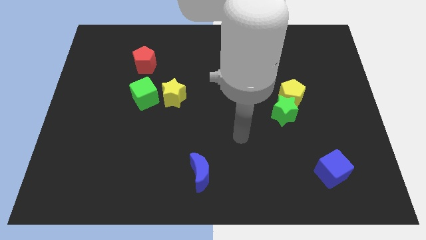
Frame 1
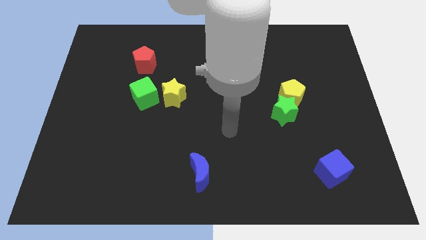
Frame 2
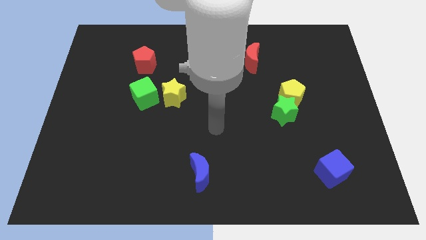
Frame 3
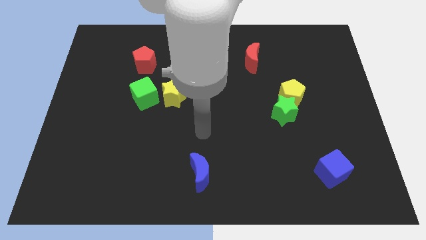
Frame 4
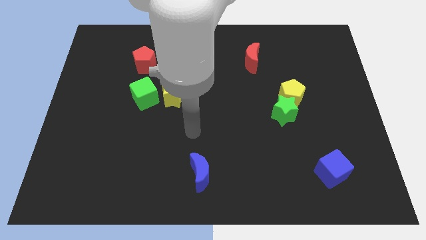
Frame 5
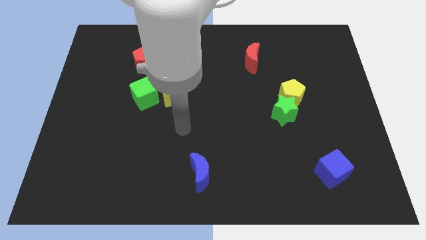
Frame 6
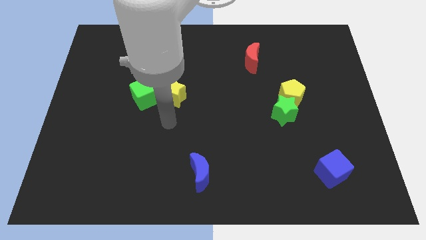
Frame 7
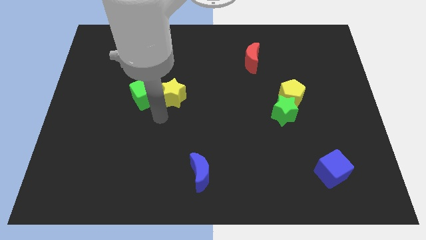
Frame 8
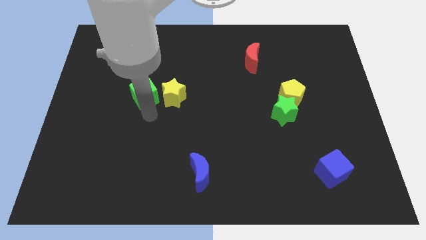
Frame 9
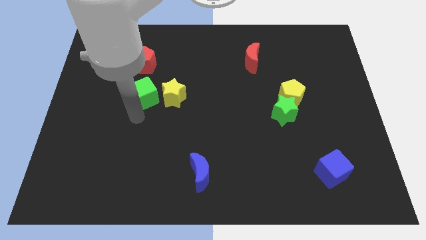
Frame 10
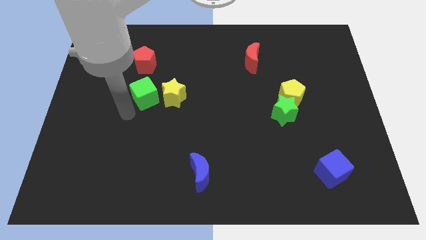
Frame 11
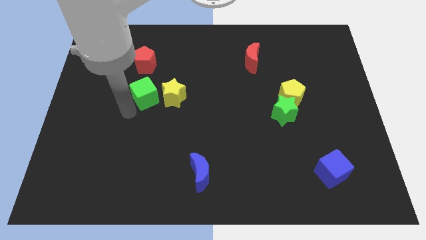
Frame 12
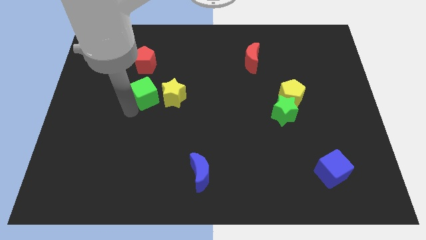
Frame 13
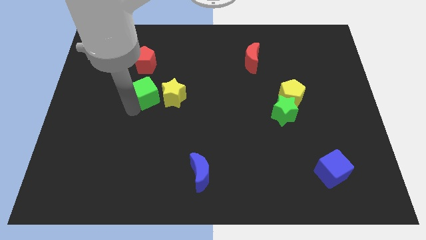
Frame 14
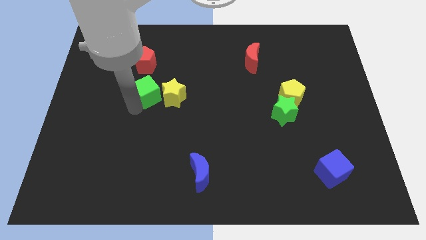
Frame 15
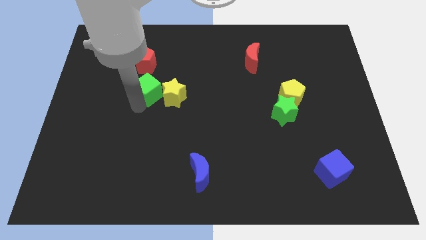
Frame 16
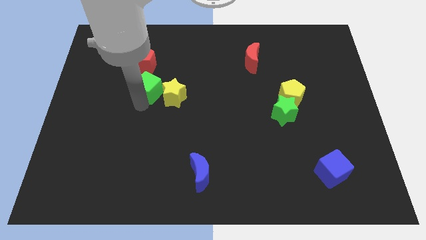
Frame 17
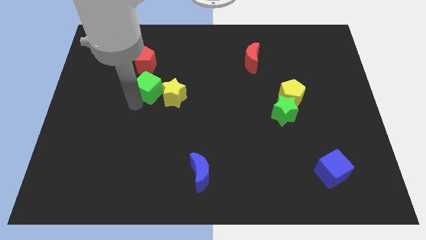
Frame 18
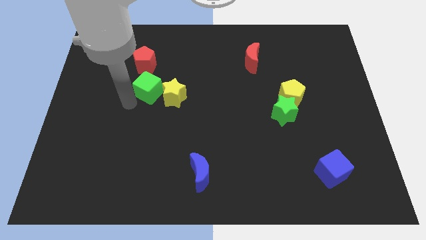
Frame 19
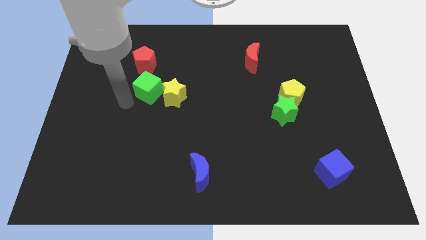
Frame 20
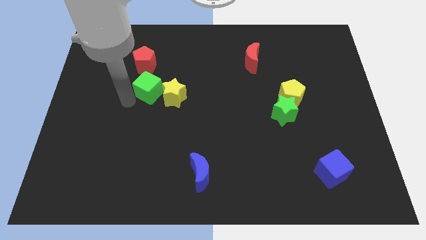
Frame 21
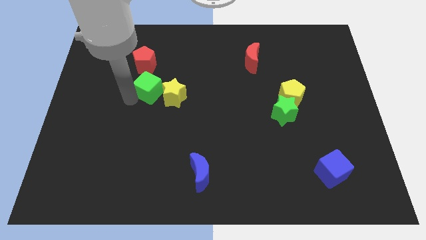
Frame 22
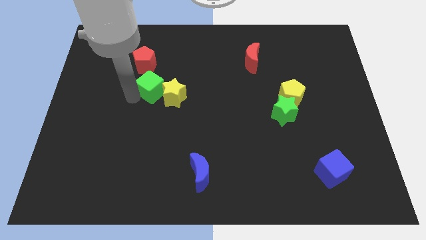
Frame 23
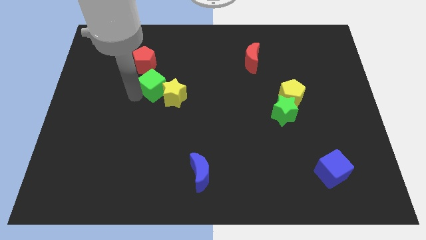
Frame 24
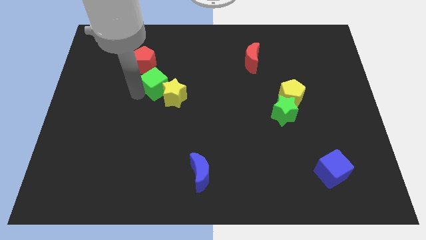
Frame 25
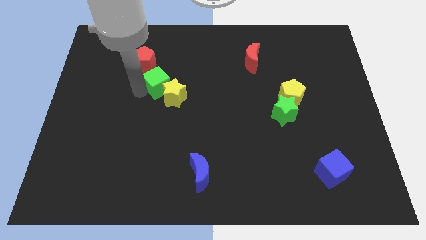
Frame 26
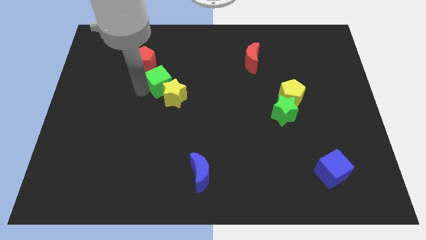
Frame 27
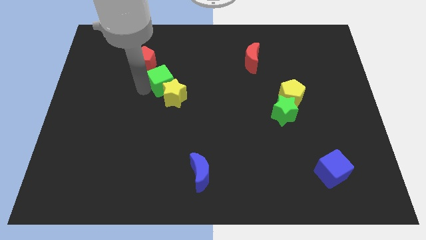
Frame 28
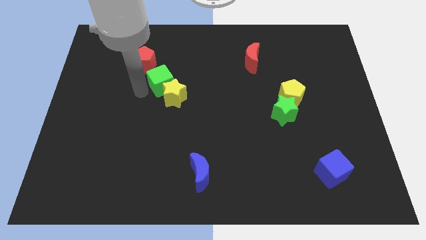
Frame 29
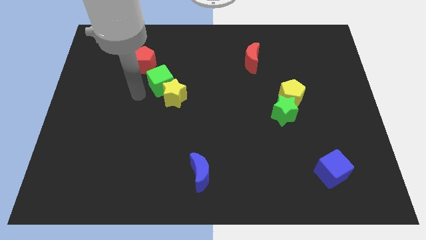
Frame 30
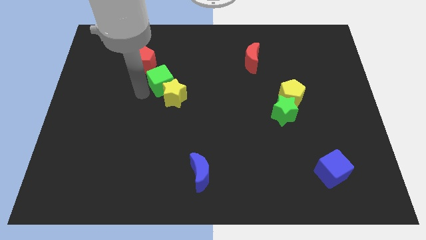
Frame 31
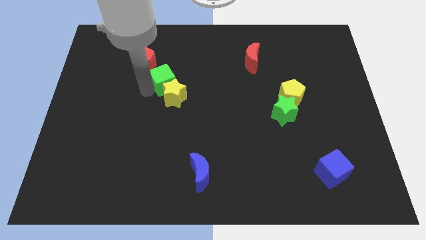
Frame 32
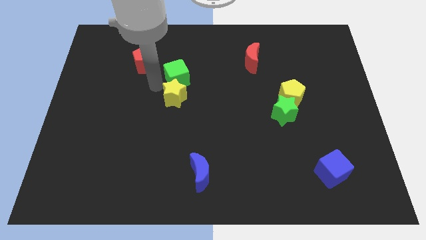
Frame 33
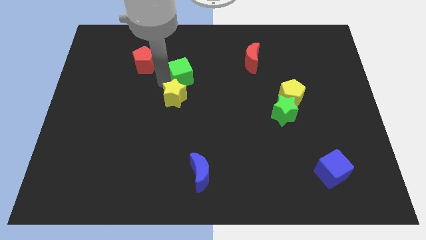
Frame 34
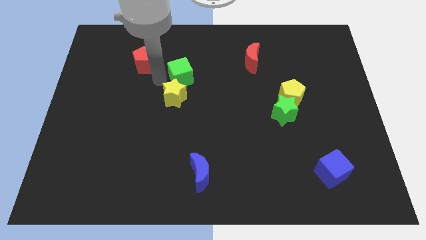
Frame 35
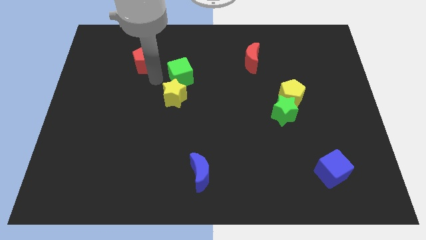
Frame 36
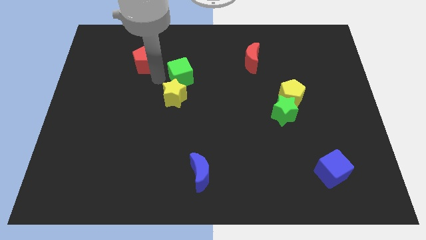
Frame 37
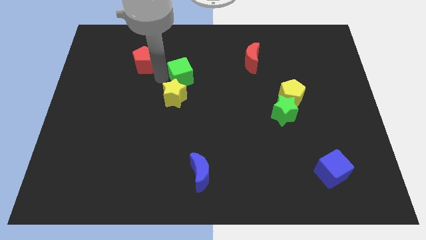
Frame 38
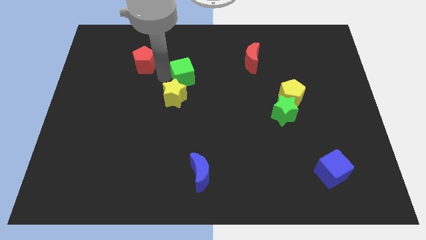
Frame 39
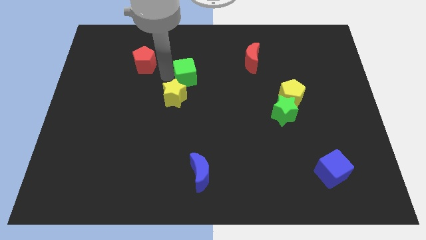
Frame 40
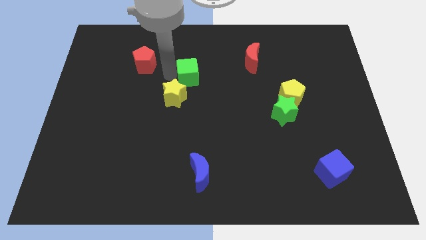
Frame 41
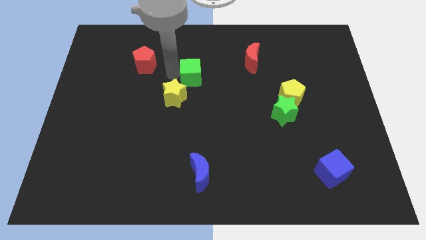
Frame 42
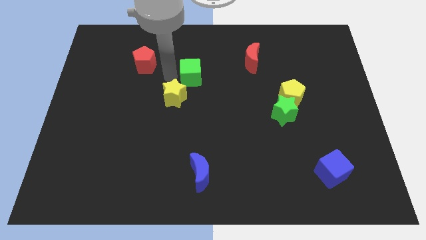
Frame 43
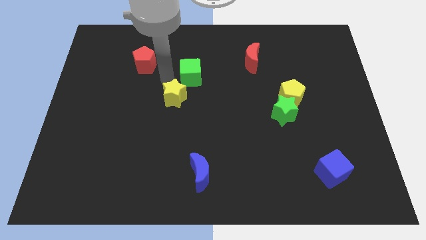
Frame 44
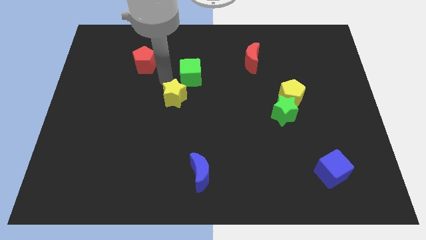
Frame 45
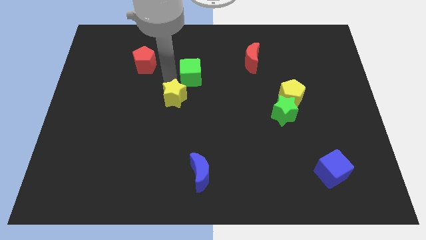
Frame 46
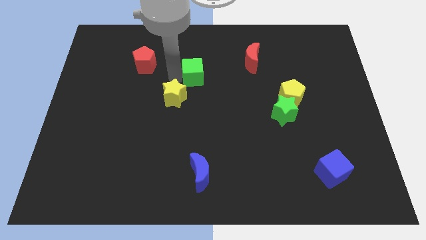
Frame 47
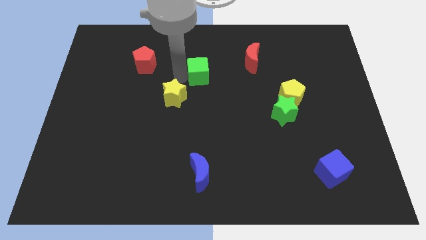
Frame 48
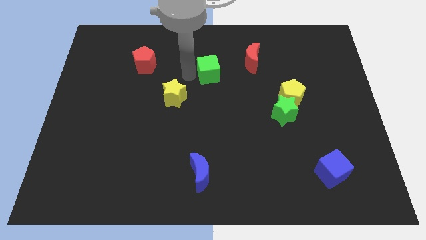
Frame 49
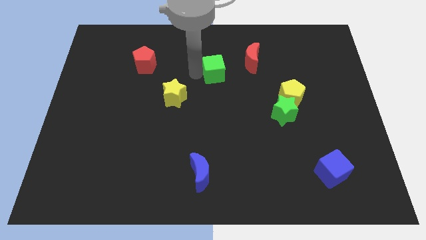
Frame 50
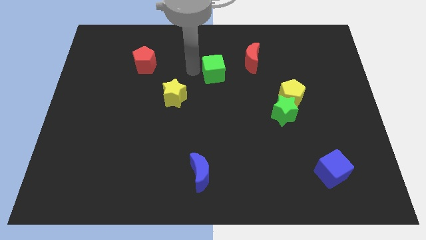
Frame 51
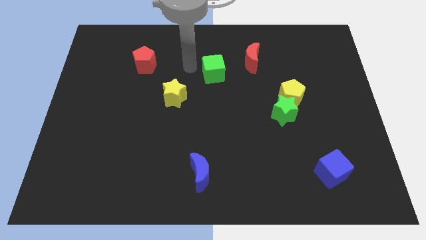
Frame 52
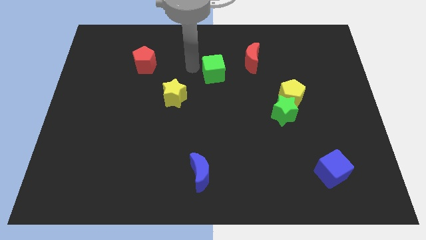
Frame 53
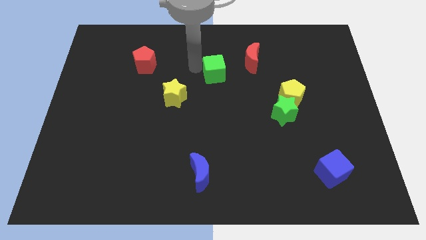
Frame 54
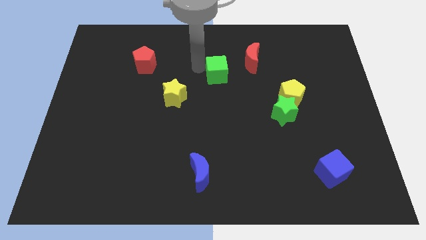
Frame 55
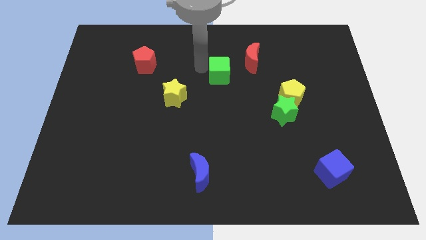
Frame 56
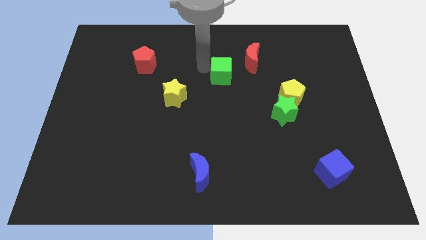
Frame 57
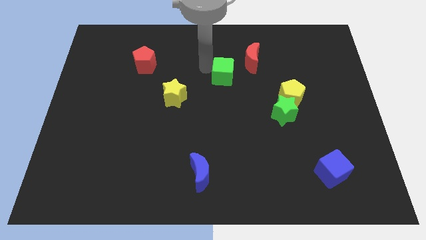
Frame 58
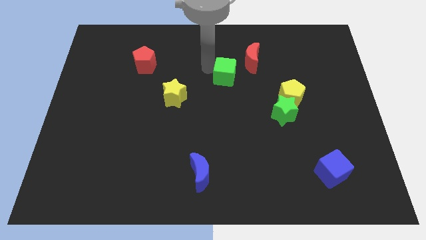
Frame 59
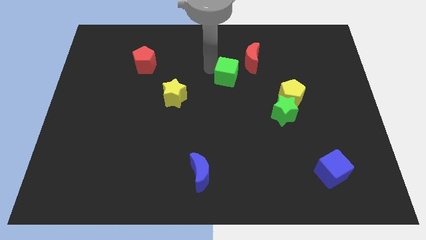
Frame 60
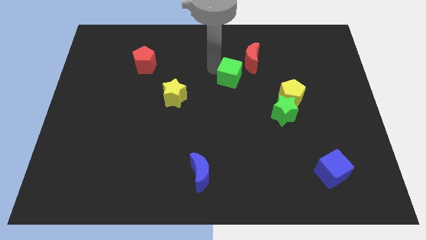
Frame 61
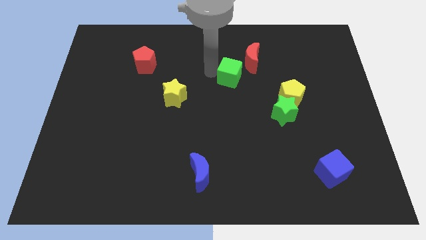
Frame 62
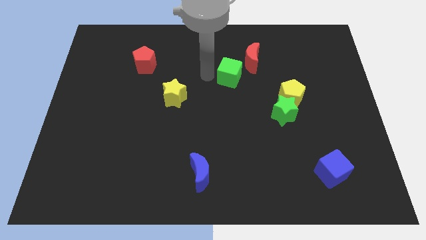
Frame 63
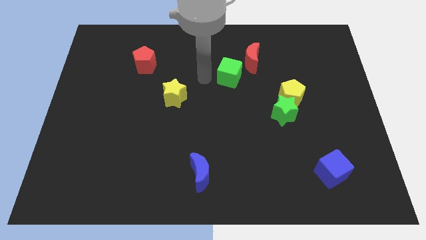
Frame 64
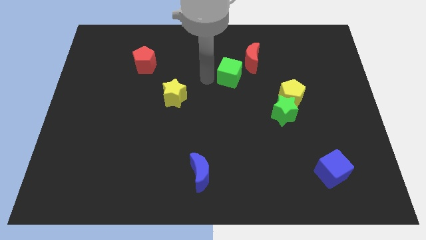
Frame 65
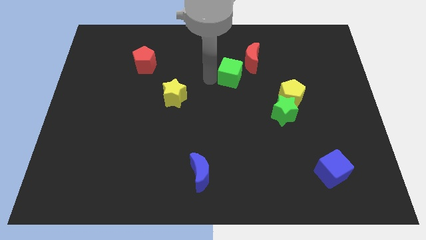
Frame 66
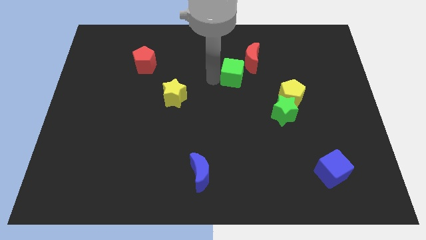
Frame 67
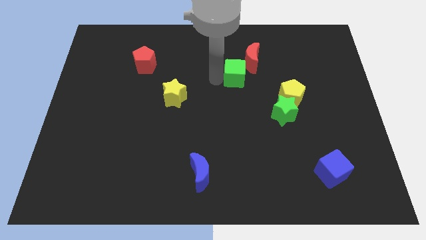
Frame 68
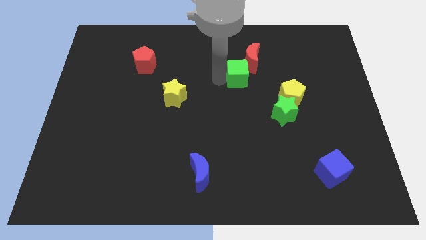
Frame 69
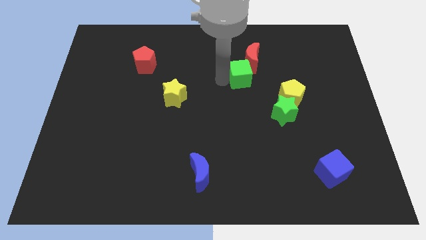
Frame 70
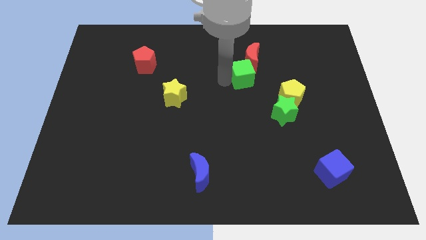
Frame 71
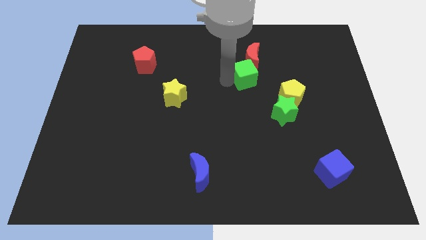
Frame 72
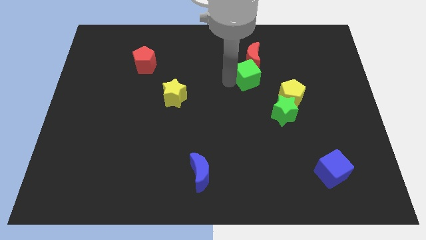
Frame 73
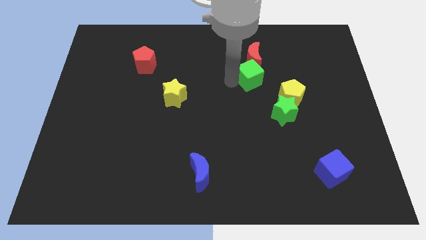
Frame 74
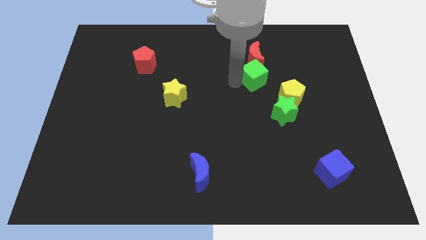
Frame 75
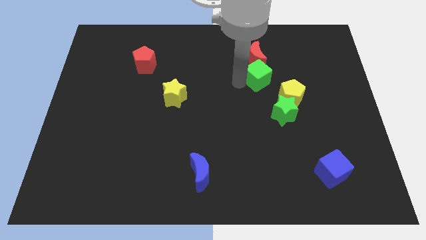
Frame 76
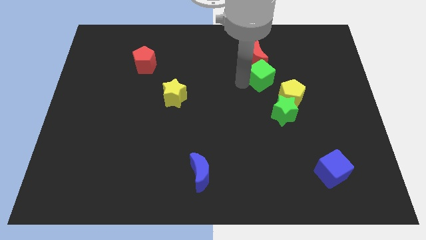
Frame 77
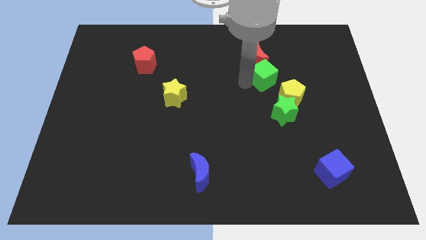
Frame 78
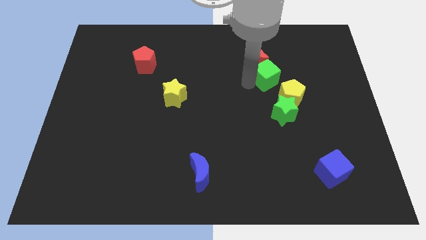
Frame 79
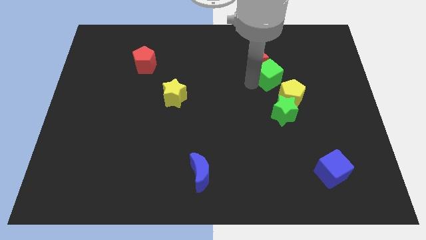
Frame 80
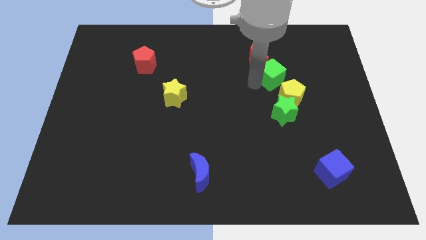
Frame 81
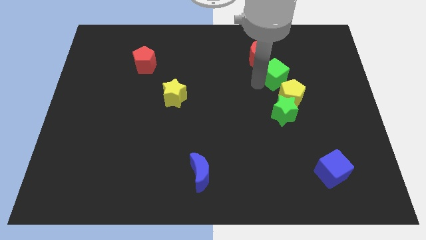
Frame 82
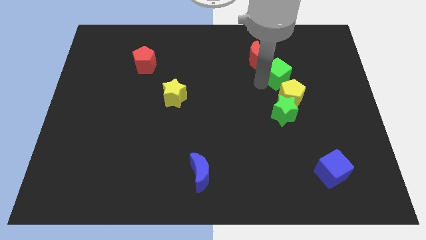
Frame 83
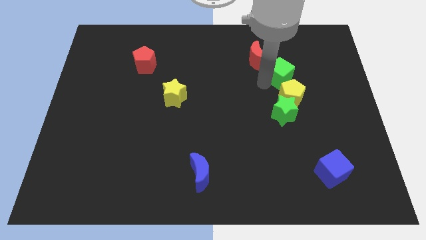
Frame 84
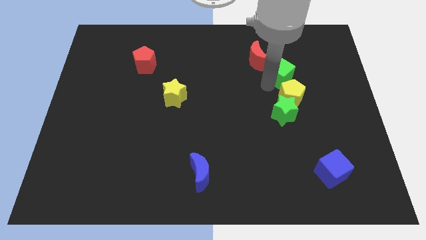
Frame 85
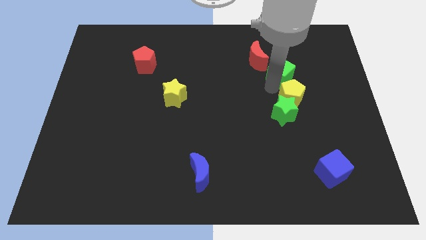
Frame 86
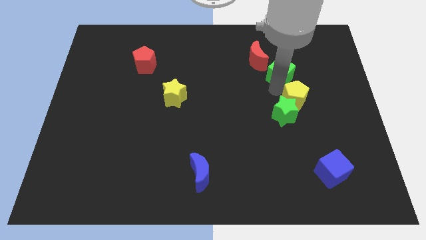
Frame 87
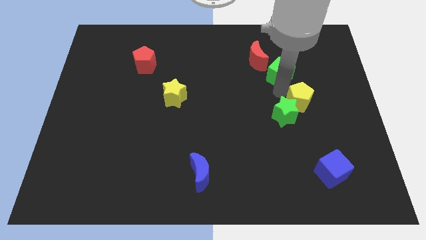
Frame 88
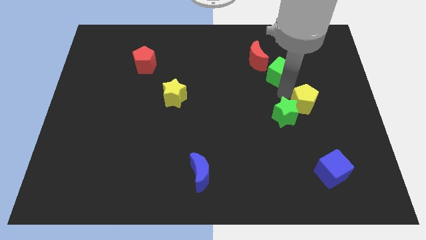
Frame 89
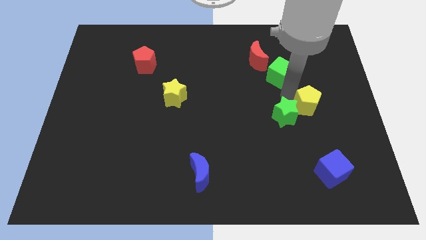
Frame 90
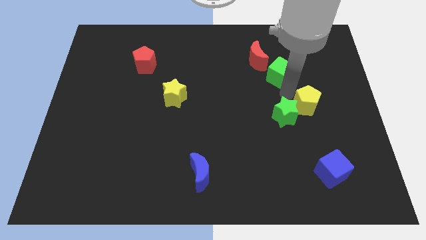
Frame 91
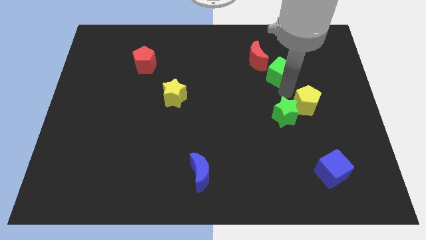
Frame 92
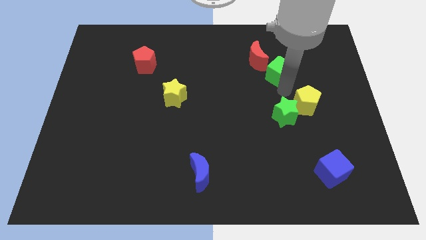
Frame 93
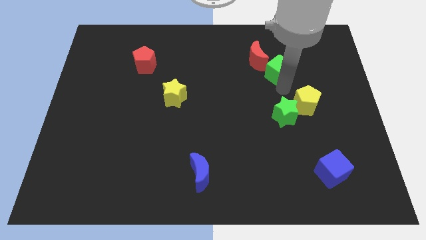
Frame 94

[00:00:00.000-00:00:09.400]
push the green cube to the right of the red moon
